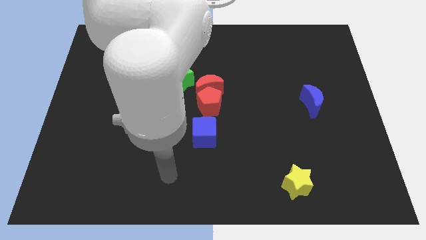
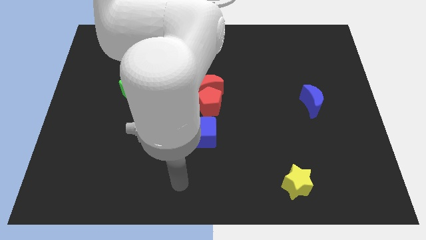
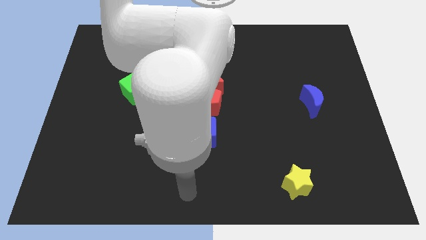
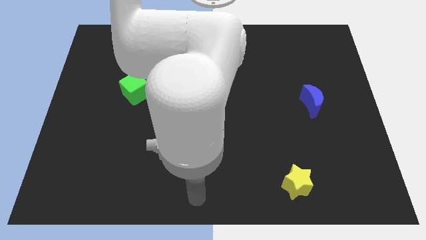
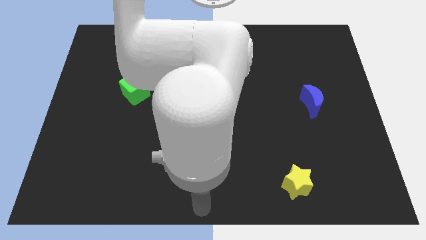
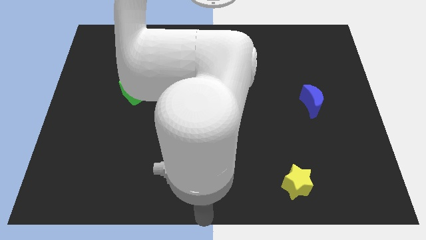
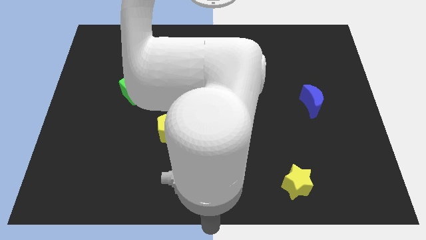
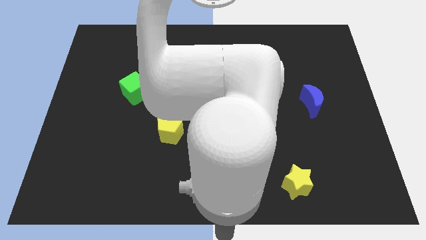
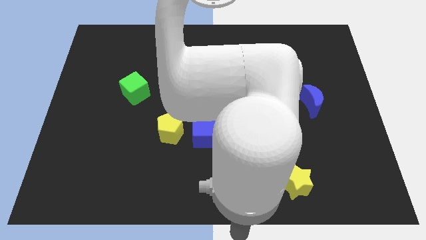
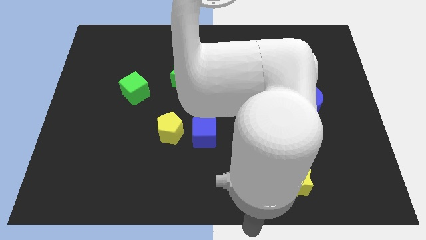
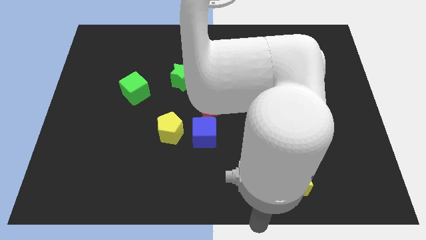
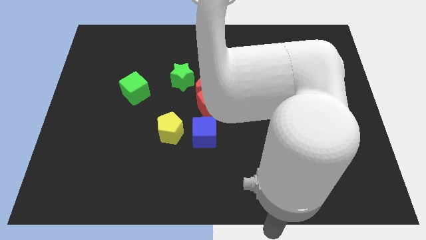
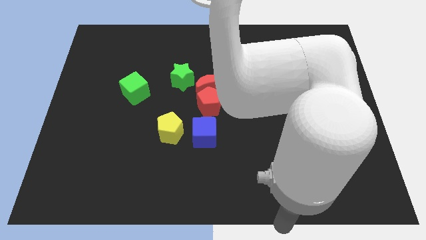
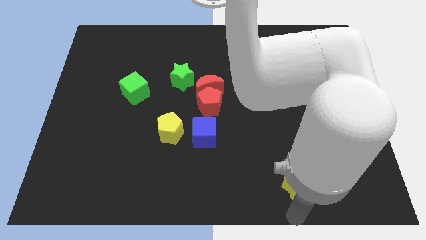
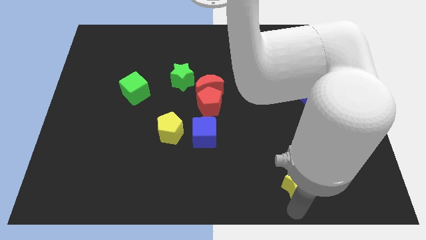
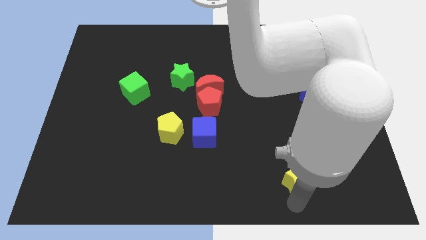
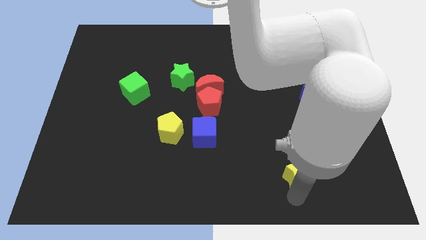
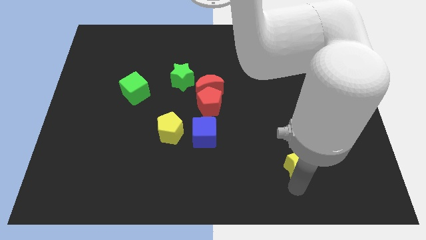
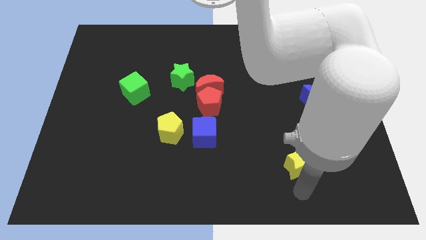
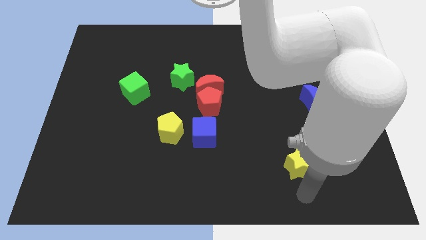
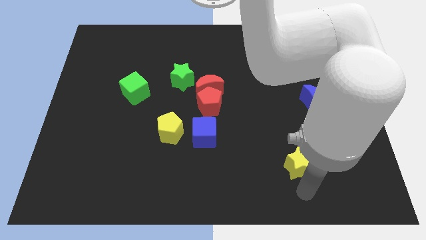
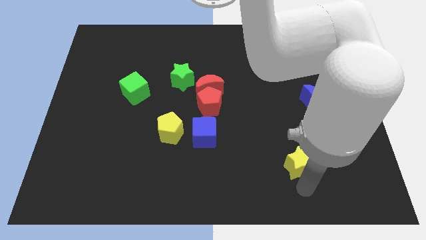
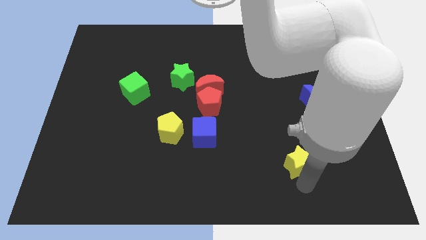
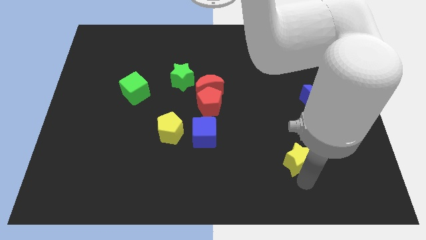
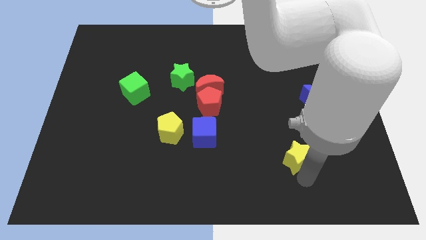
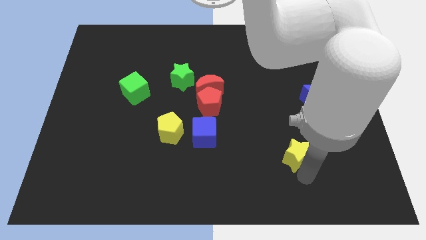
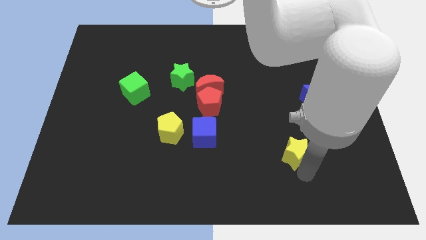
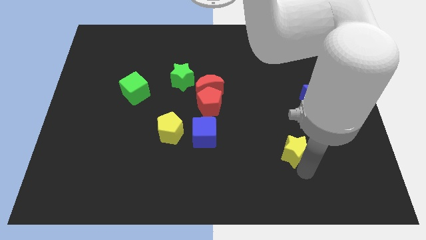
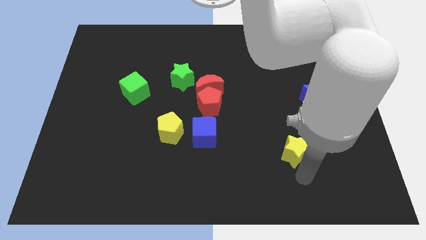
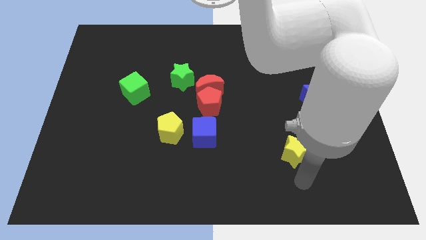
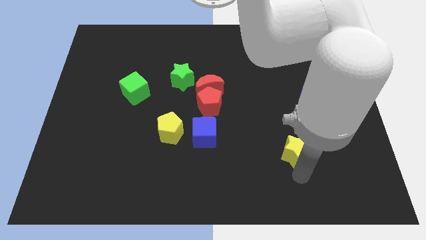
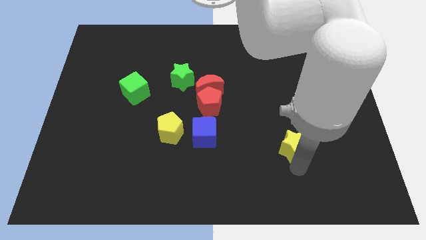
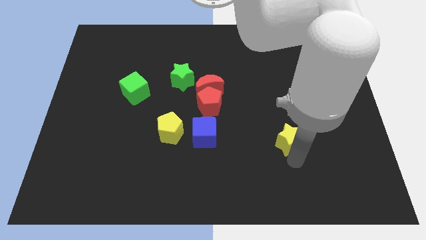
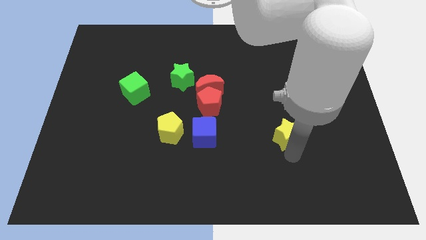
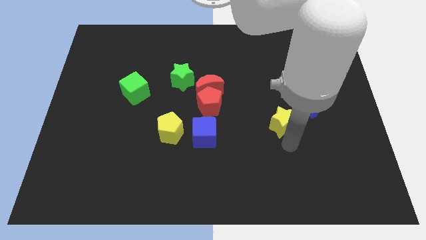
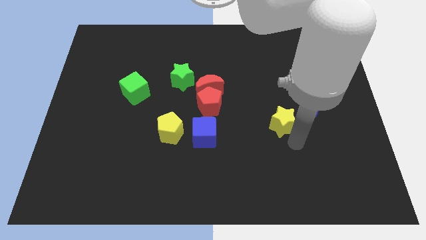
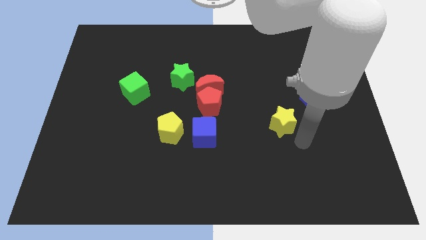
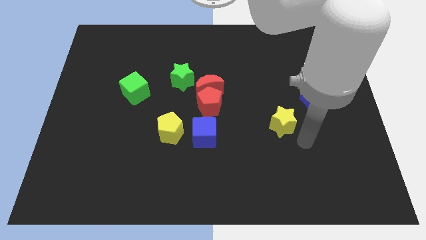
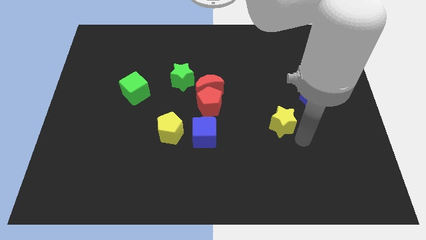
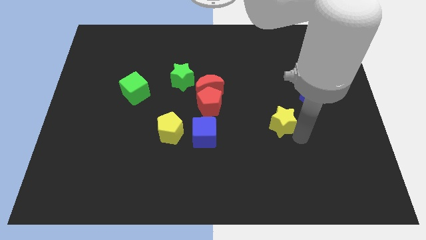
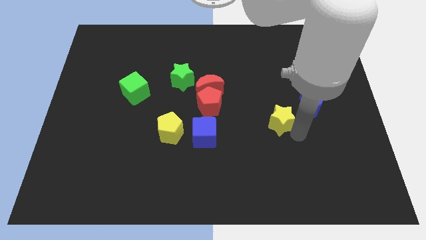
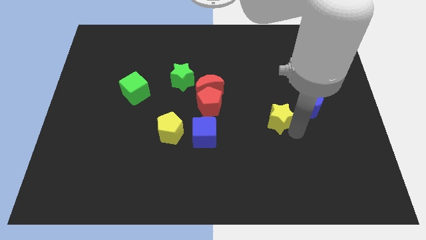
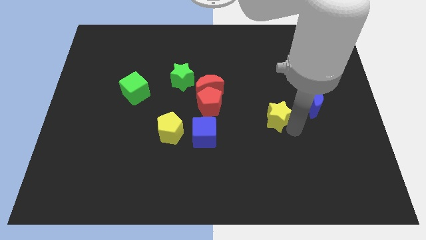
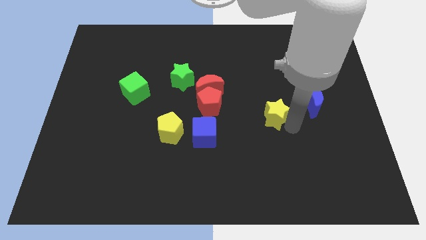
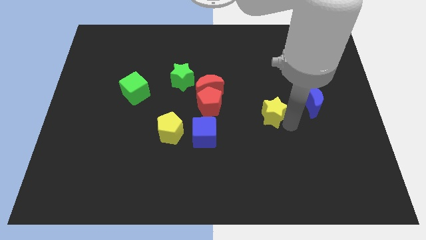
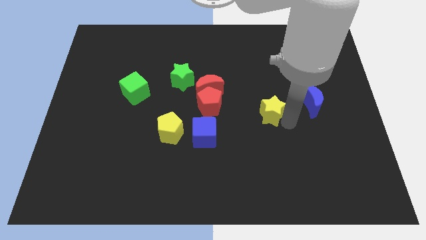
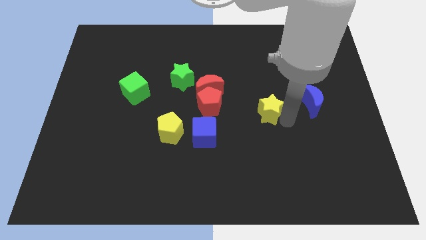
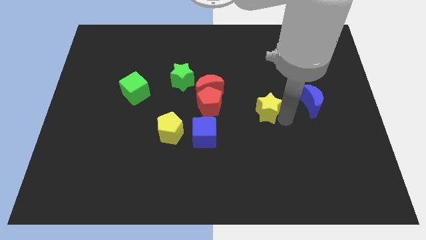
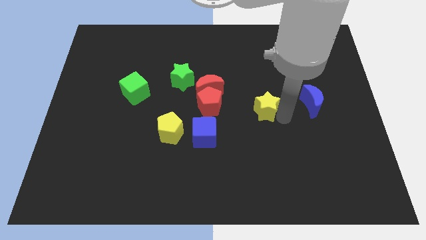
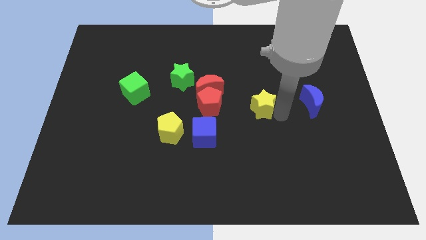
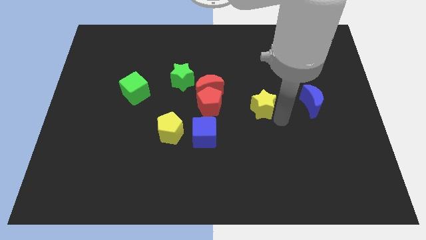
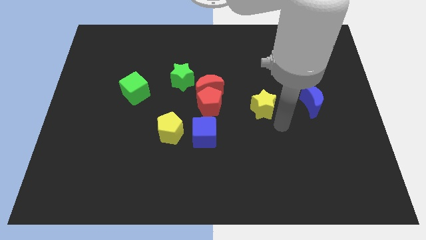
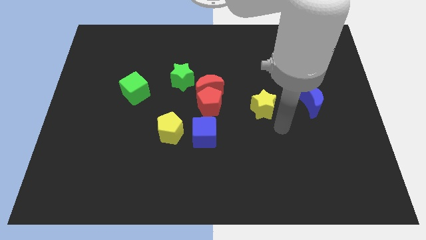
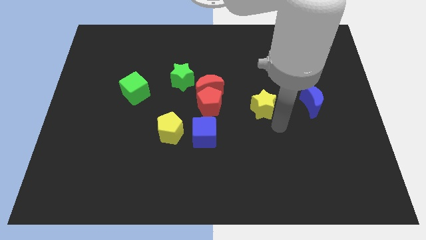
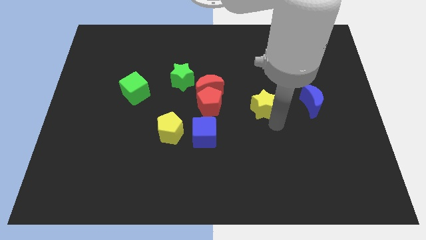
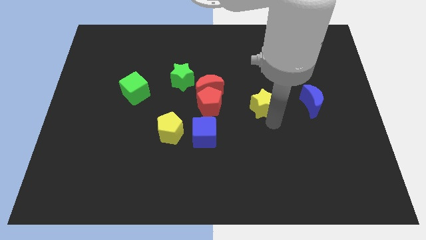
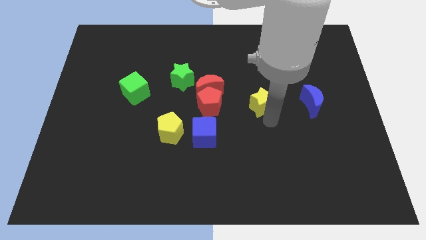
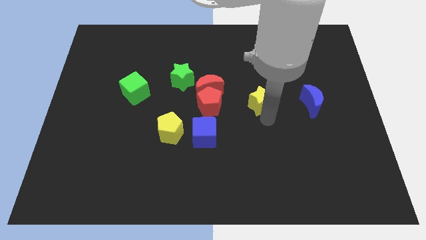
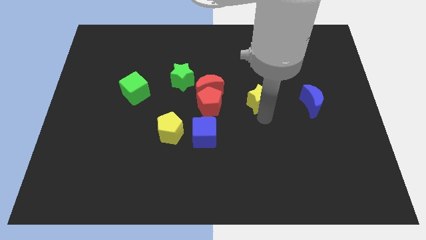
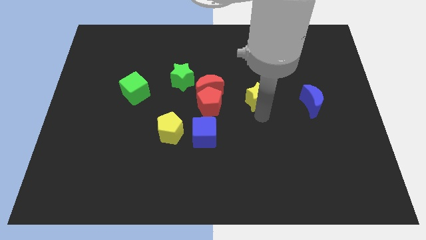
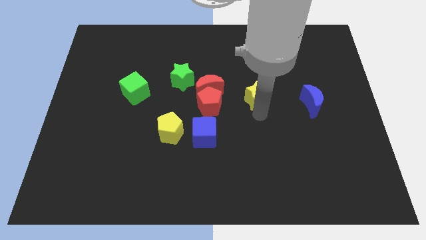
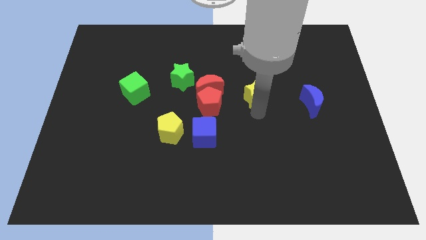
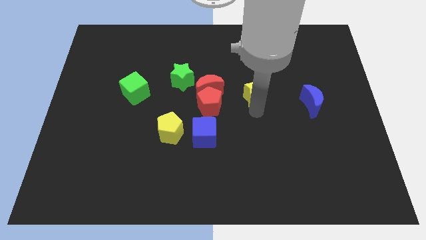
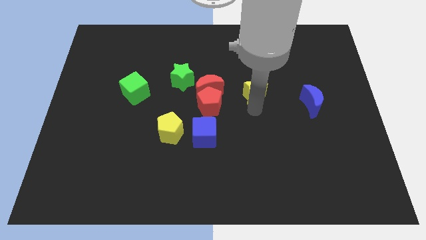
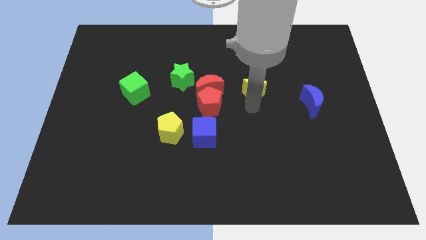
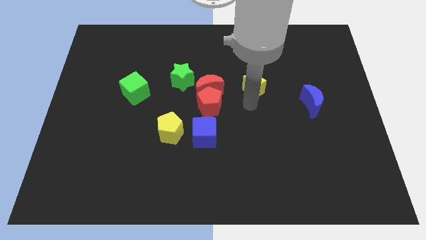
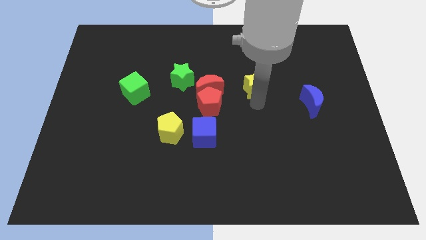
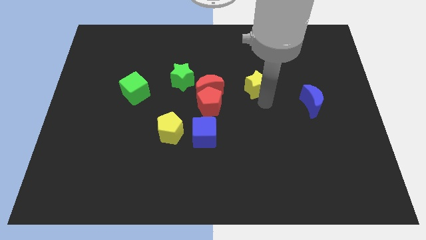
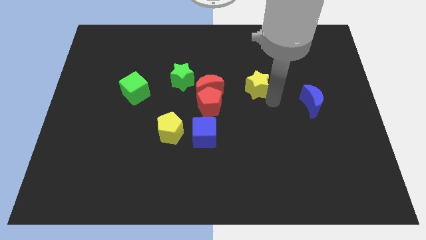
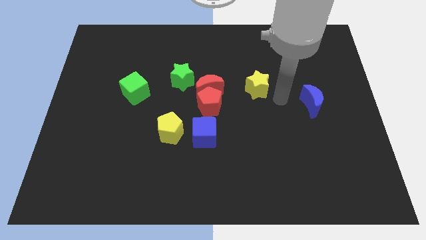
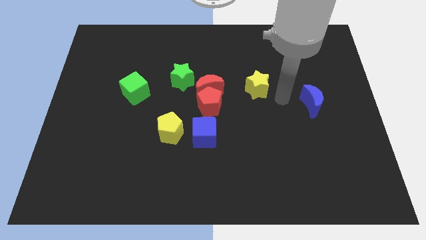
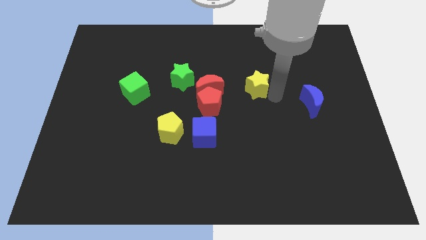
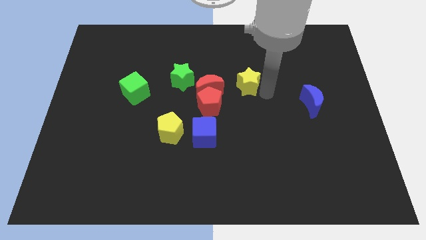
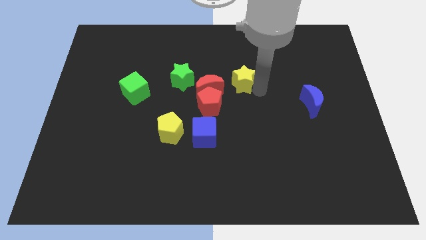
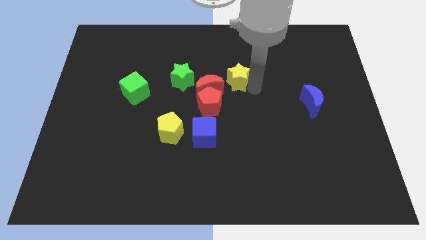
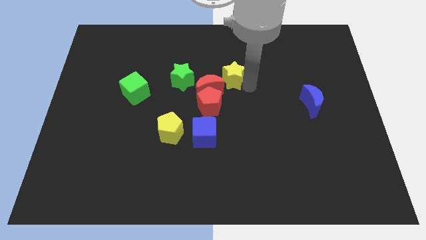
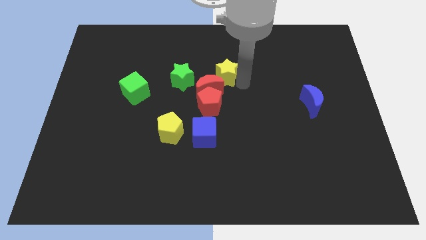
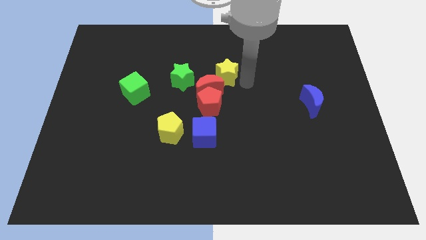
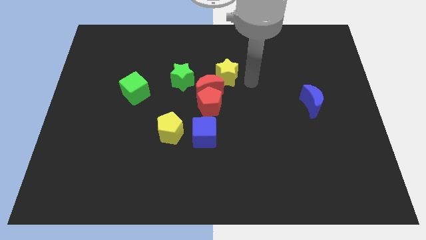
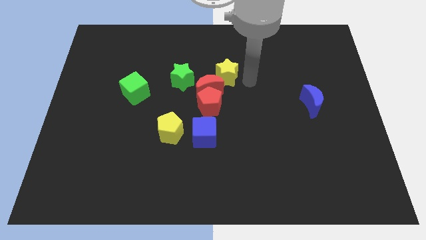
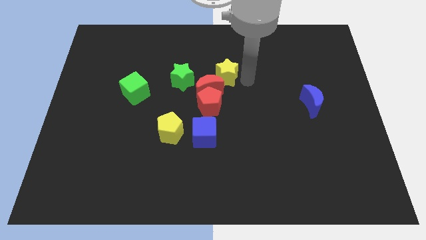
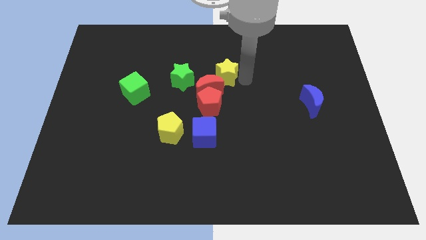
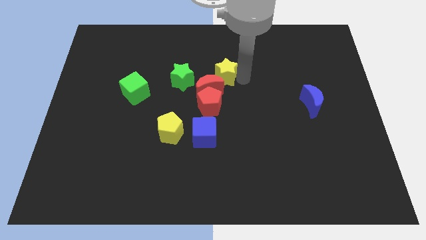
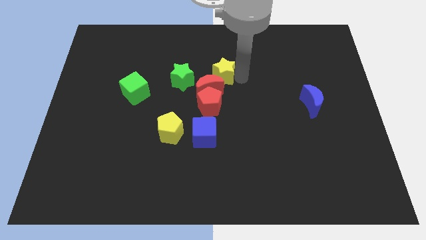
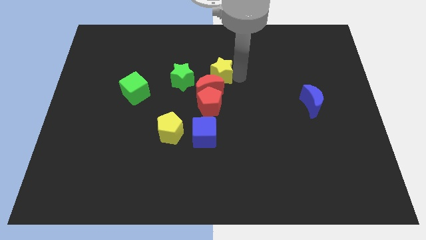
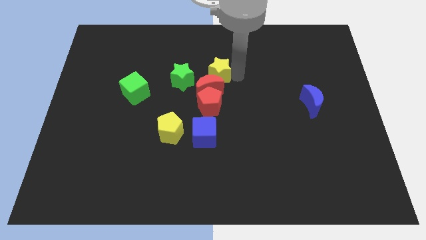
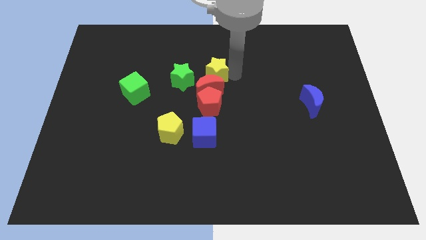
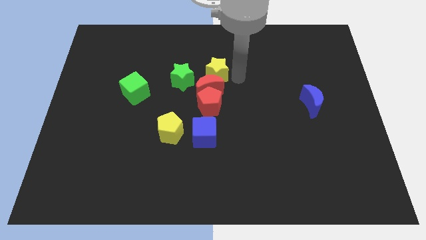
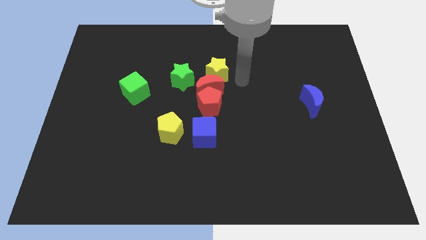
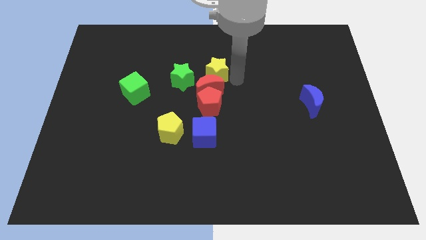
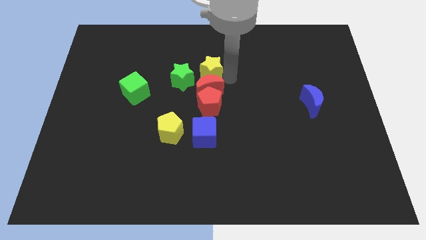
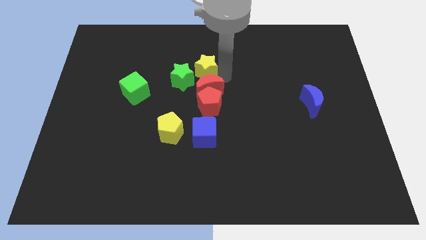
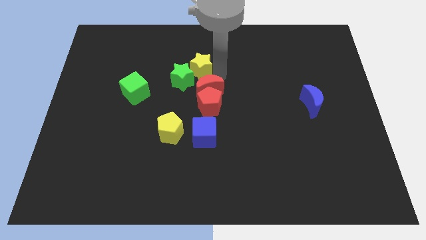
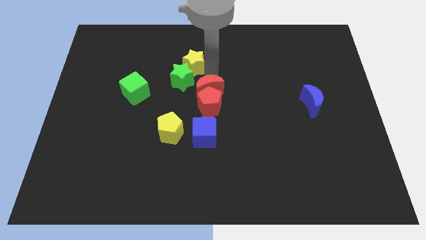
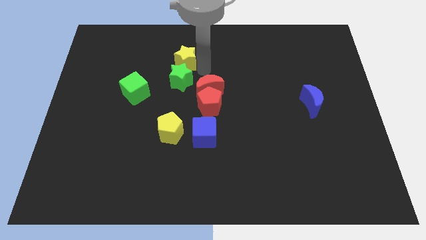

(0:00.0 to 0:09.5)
push the yellow star to the top left side of the green star
